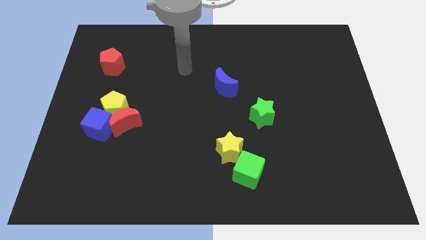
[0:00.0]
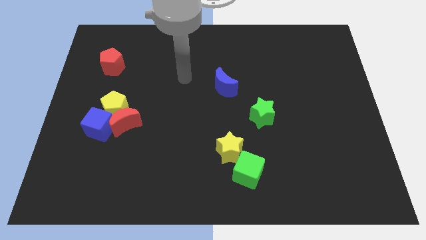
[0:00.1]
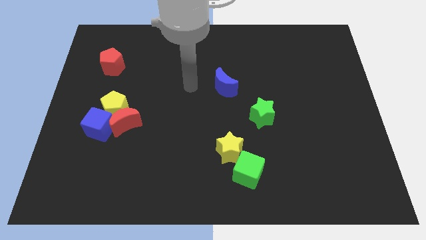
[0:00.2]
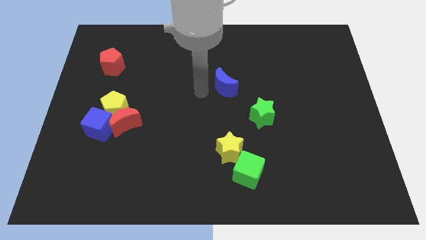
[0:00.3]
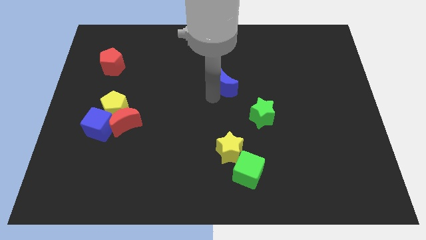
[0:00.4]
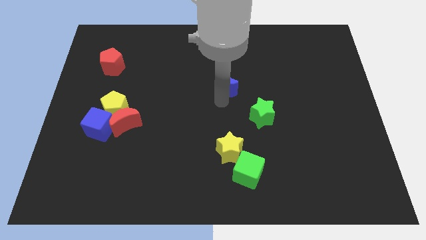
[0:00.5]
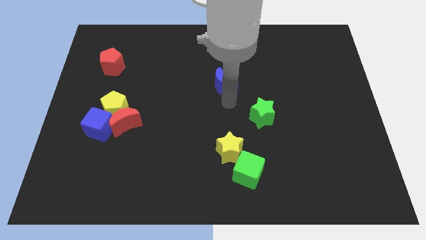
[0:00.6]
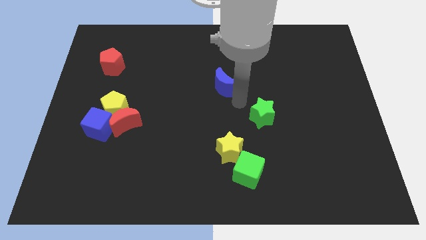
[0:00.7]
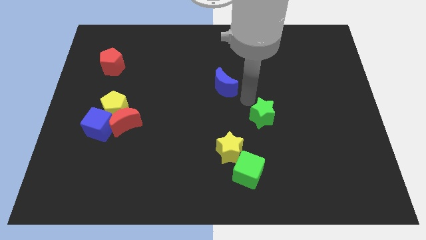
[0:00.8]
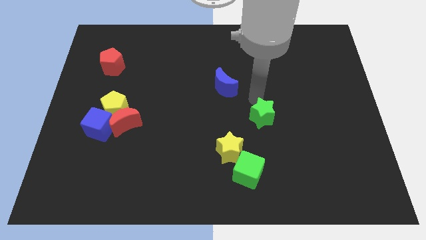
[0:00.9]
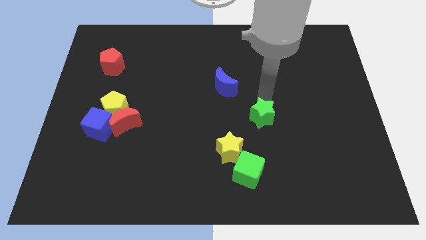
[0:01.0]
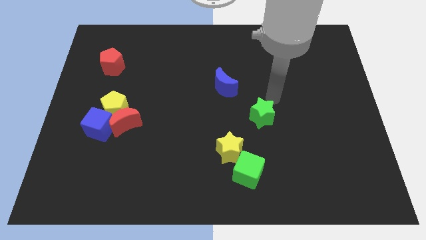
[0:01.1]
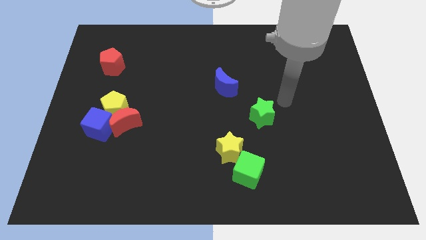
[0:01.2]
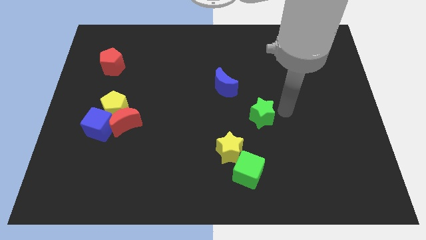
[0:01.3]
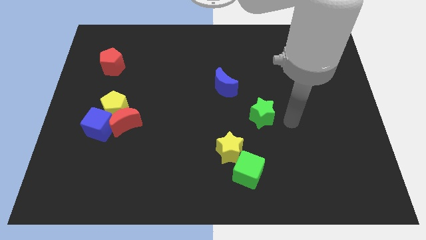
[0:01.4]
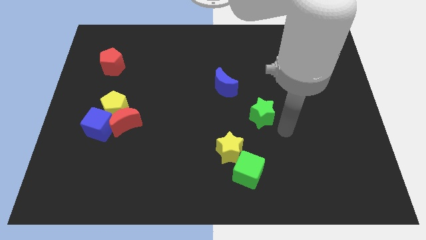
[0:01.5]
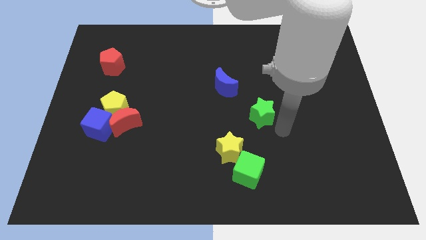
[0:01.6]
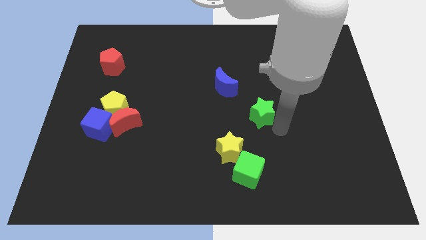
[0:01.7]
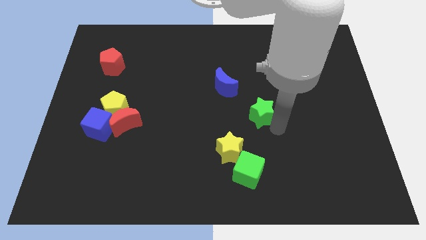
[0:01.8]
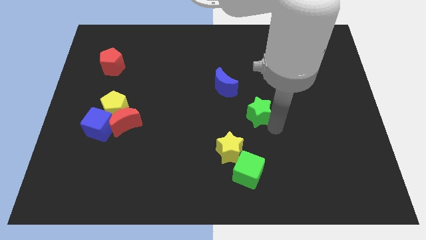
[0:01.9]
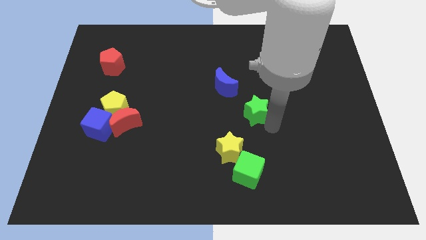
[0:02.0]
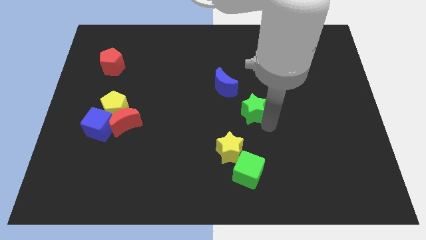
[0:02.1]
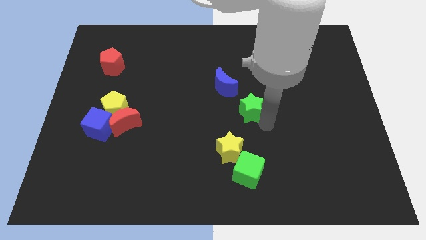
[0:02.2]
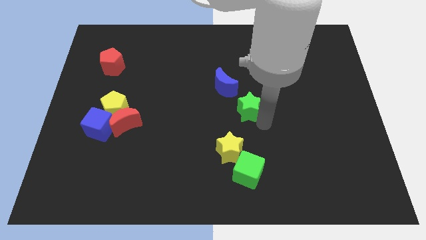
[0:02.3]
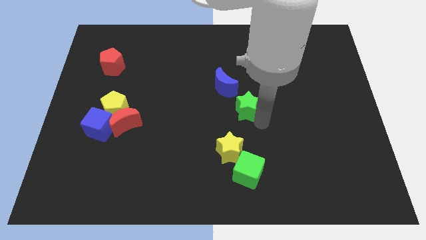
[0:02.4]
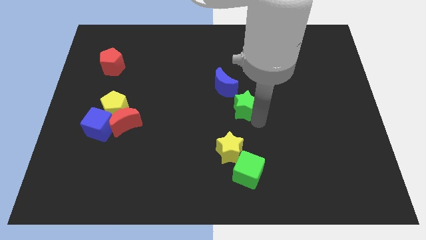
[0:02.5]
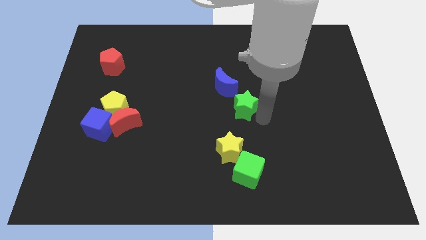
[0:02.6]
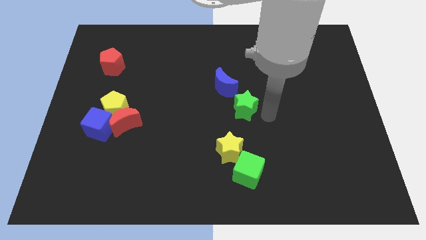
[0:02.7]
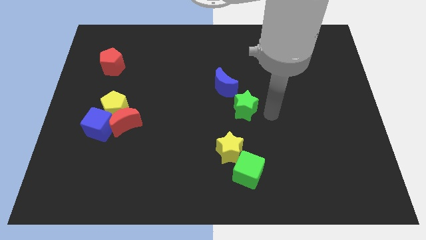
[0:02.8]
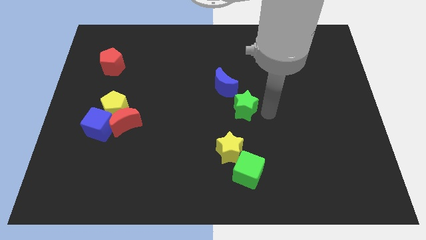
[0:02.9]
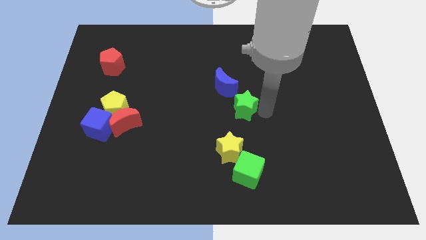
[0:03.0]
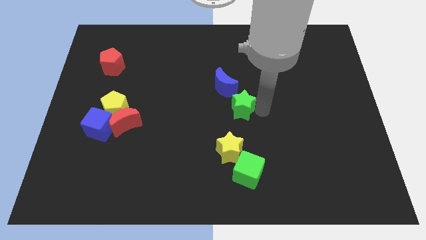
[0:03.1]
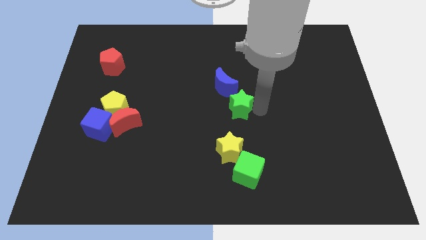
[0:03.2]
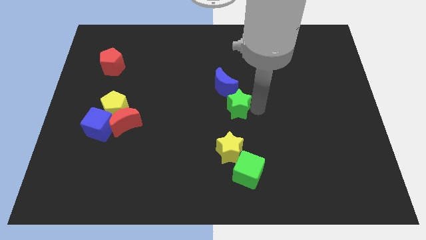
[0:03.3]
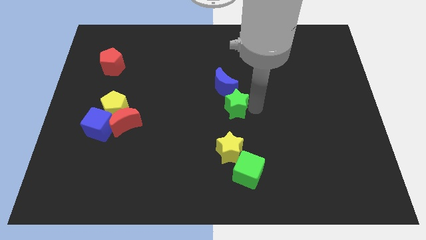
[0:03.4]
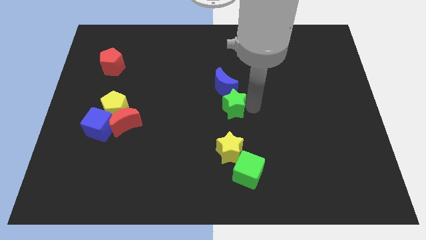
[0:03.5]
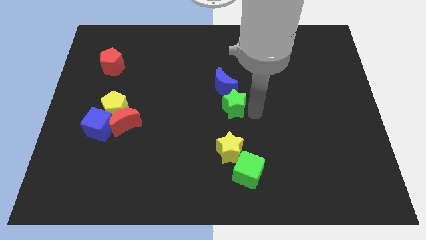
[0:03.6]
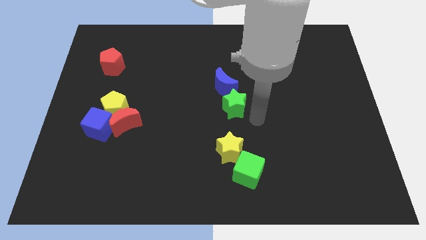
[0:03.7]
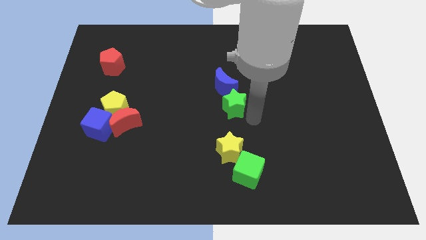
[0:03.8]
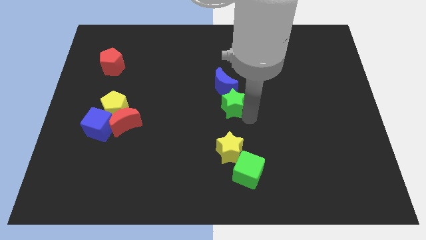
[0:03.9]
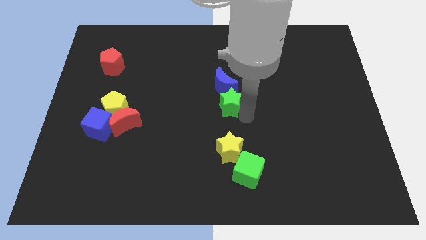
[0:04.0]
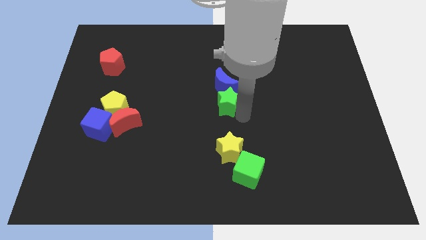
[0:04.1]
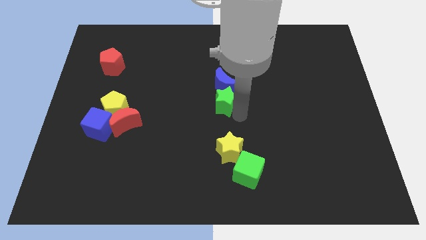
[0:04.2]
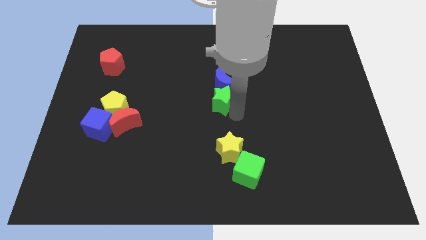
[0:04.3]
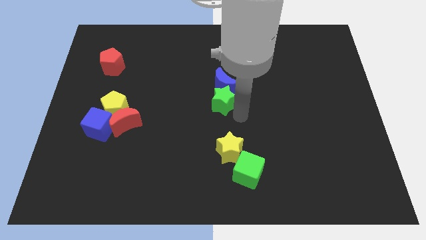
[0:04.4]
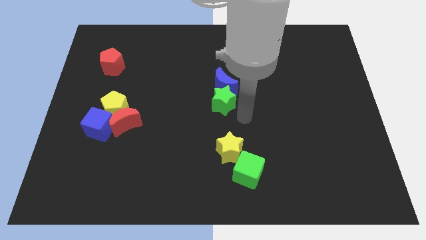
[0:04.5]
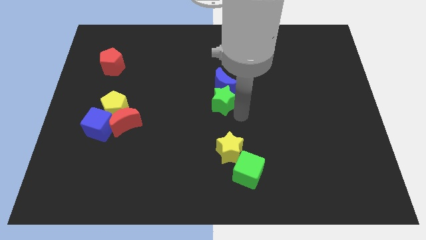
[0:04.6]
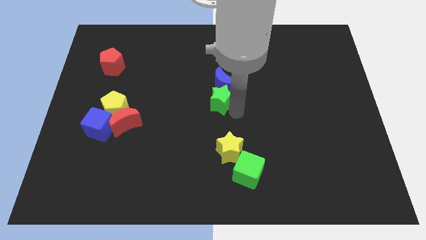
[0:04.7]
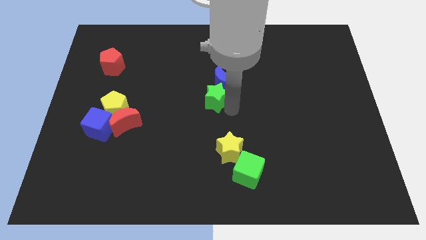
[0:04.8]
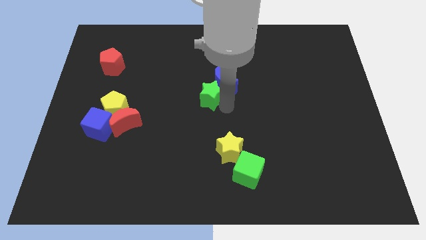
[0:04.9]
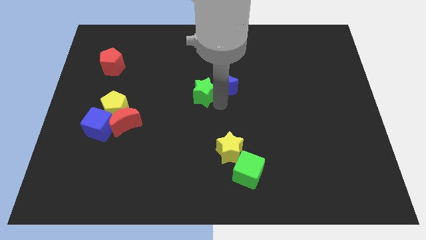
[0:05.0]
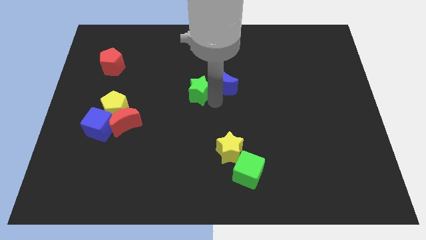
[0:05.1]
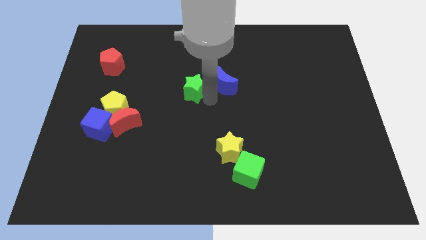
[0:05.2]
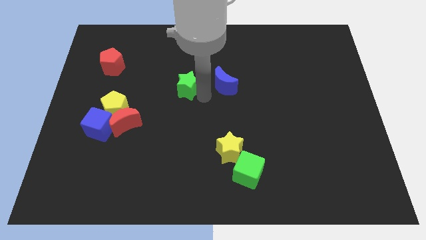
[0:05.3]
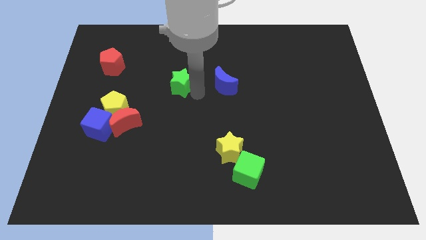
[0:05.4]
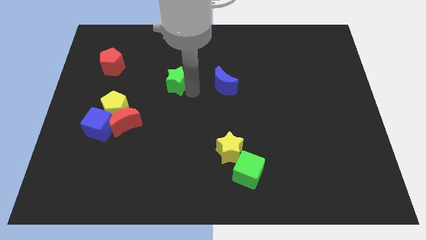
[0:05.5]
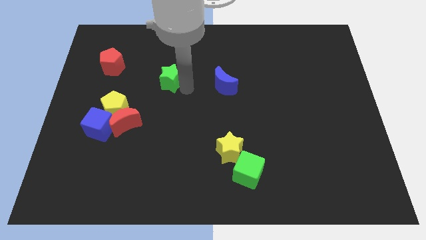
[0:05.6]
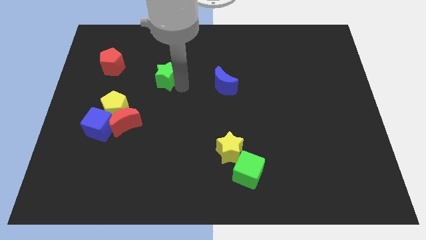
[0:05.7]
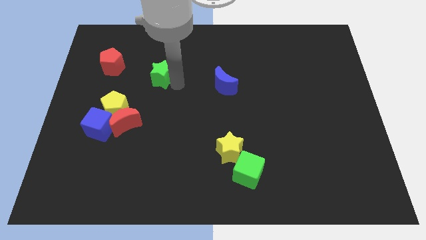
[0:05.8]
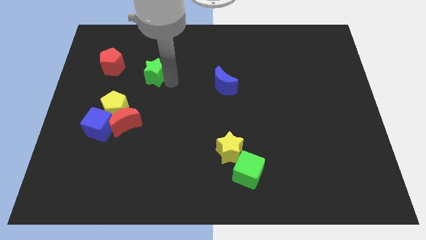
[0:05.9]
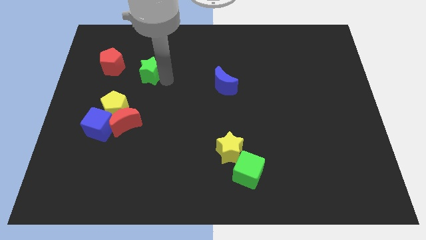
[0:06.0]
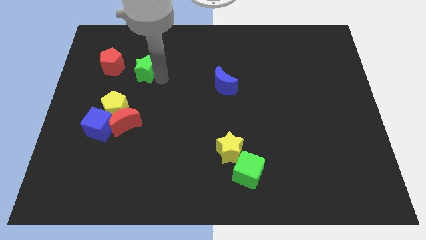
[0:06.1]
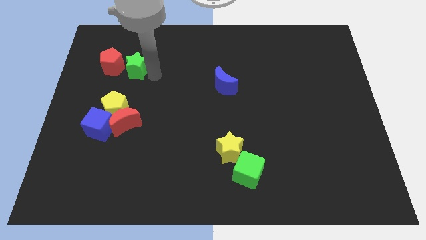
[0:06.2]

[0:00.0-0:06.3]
move the green star to the red pentagon

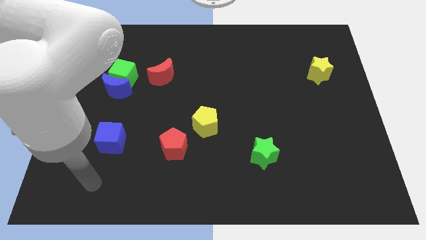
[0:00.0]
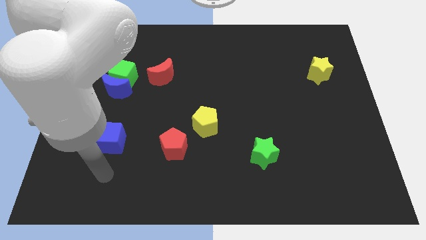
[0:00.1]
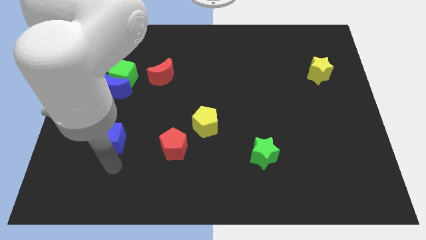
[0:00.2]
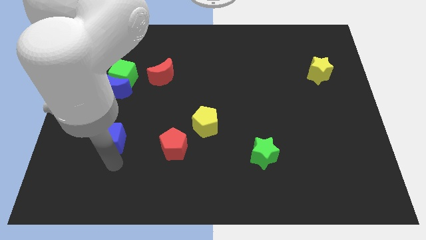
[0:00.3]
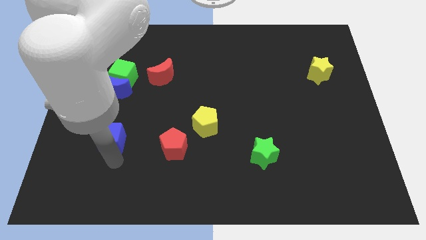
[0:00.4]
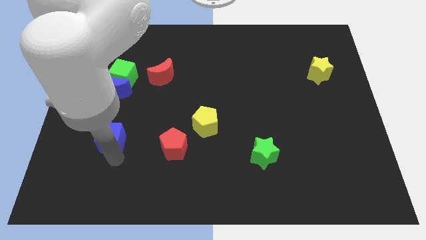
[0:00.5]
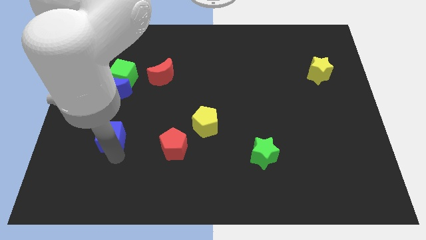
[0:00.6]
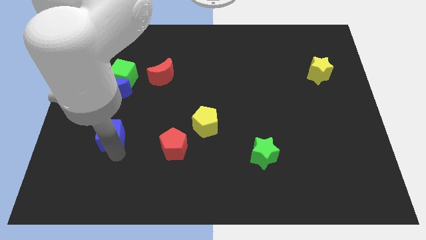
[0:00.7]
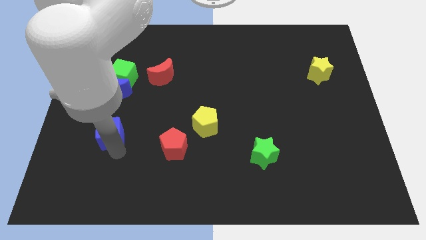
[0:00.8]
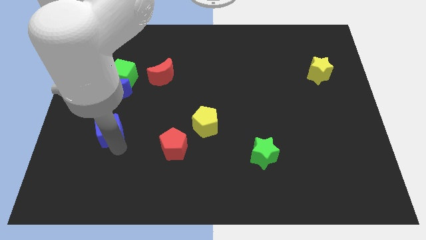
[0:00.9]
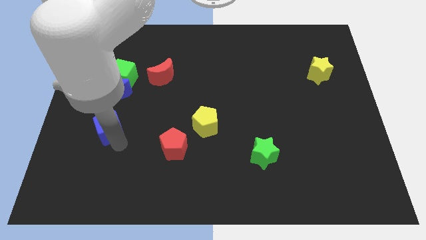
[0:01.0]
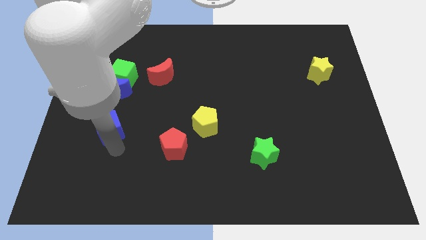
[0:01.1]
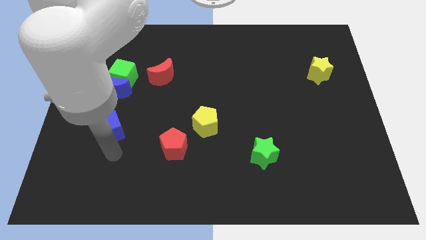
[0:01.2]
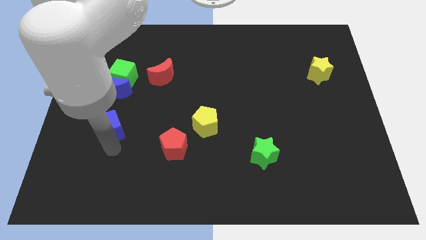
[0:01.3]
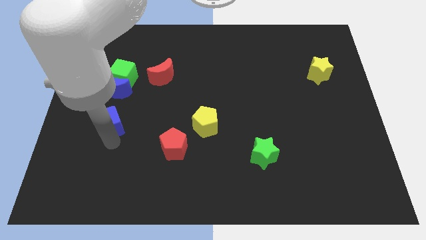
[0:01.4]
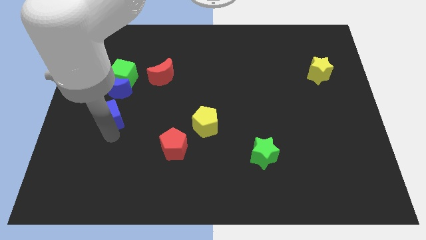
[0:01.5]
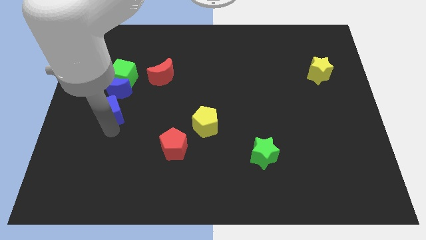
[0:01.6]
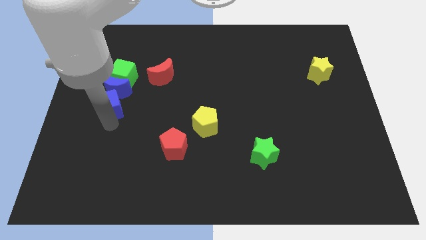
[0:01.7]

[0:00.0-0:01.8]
push the blue cube next to the blue moon
